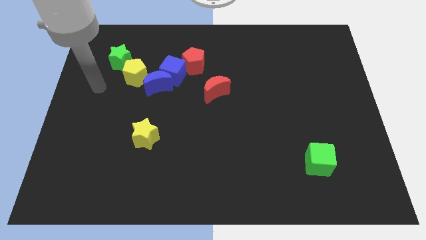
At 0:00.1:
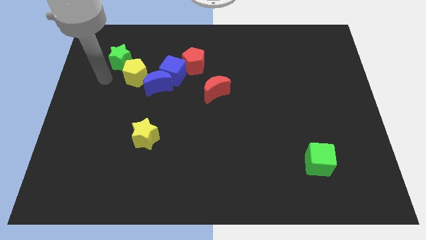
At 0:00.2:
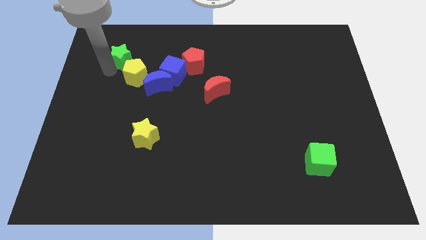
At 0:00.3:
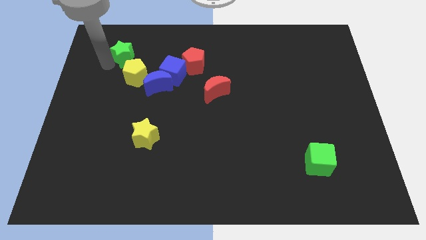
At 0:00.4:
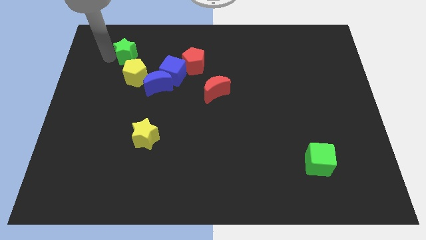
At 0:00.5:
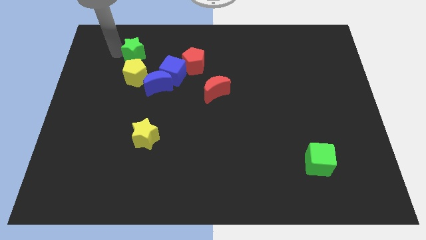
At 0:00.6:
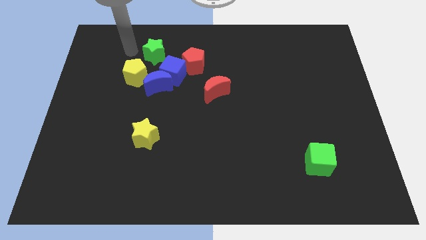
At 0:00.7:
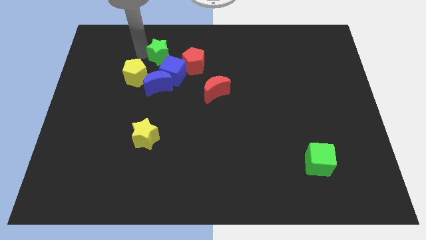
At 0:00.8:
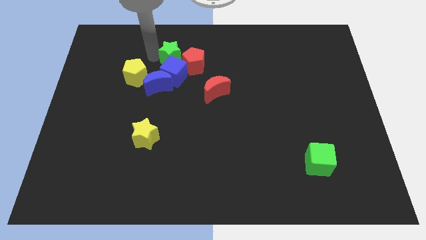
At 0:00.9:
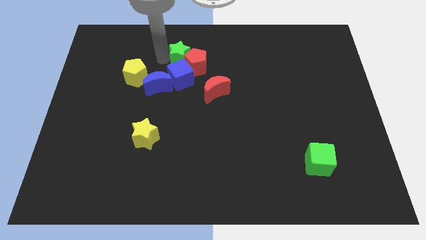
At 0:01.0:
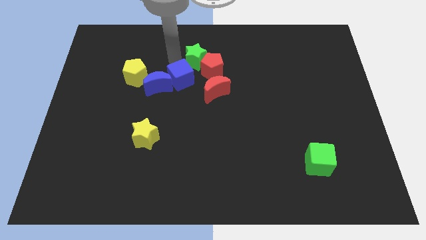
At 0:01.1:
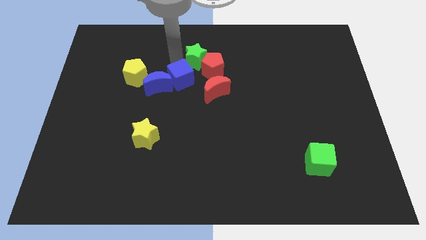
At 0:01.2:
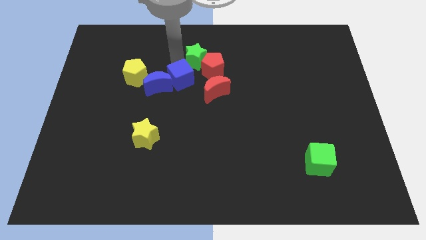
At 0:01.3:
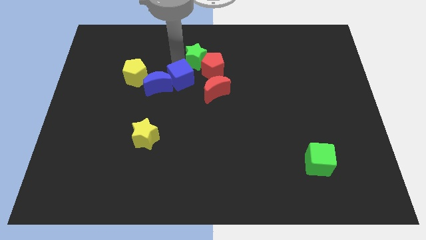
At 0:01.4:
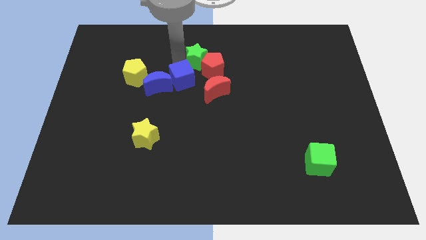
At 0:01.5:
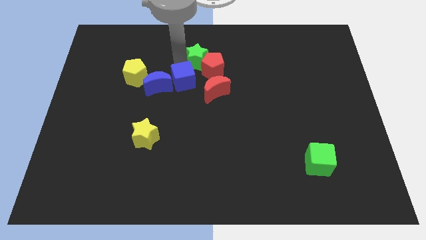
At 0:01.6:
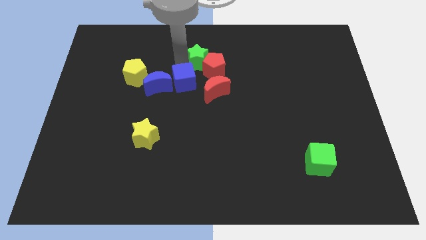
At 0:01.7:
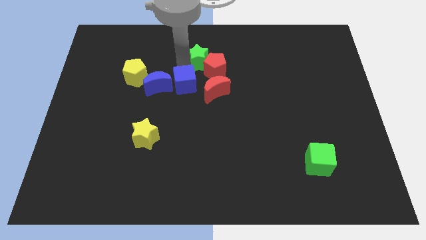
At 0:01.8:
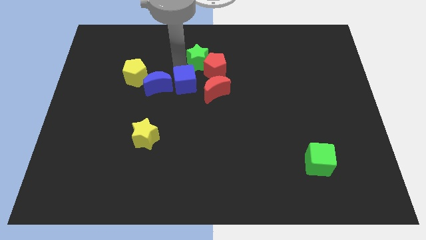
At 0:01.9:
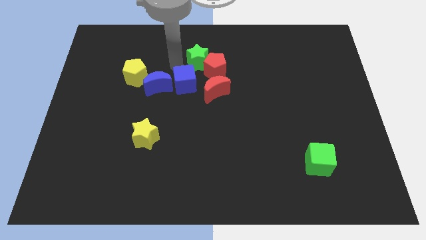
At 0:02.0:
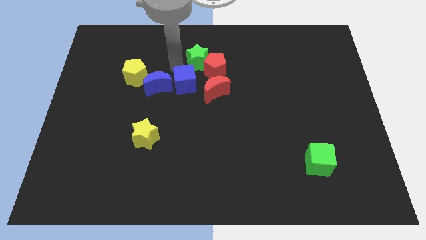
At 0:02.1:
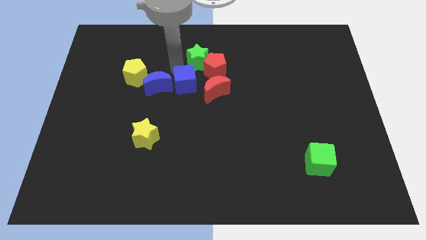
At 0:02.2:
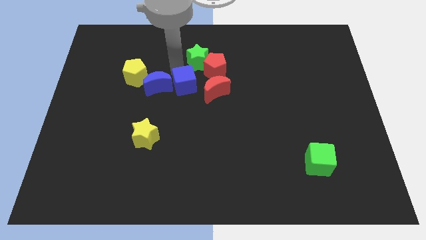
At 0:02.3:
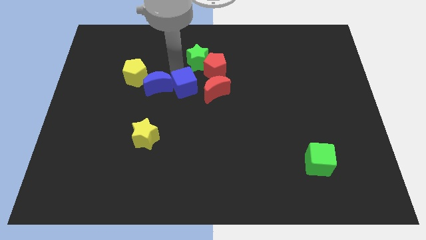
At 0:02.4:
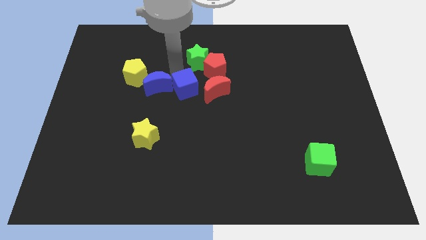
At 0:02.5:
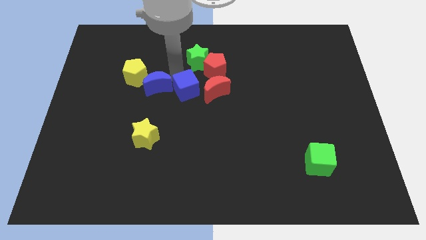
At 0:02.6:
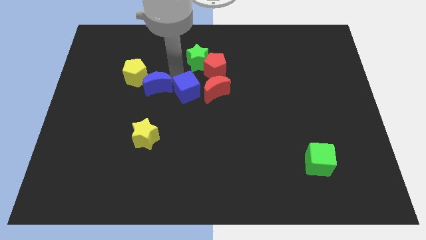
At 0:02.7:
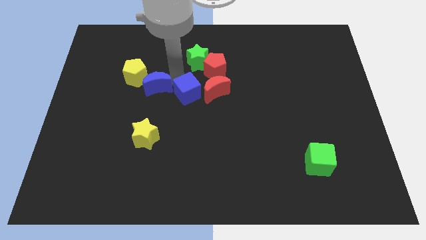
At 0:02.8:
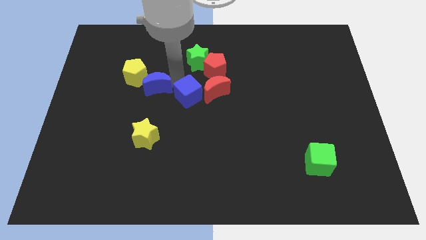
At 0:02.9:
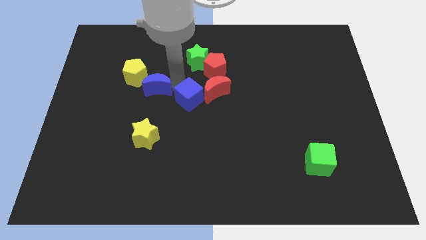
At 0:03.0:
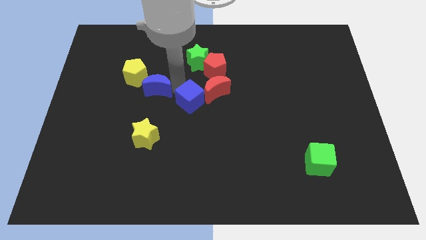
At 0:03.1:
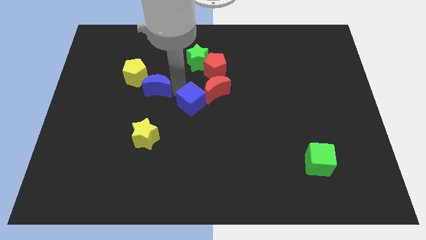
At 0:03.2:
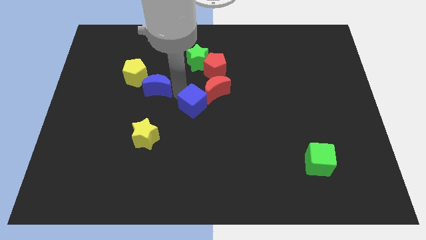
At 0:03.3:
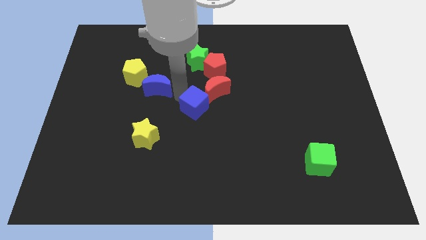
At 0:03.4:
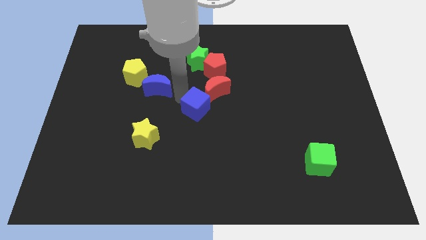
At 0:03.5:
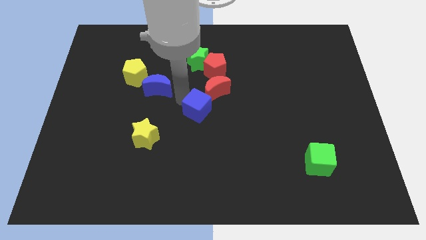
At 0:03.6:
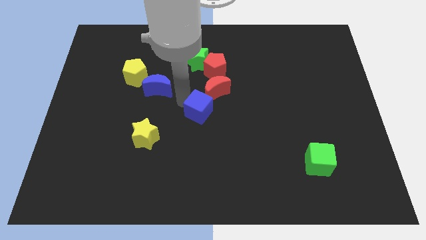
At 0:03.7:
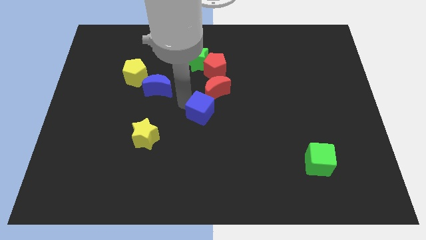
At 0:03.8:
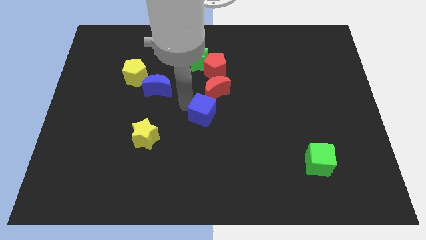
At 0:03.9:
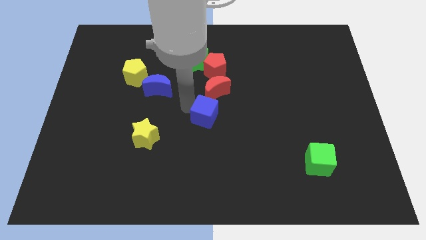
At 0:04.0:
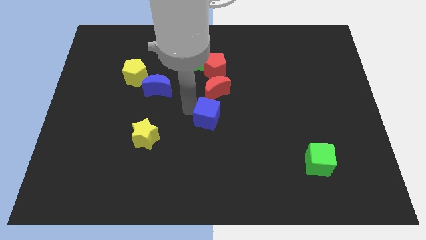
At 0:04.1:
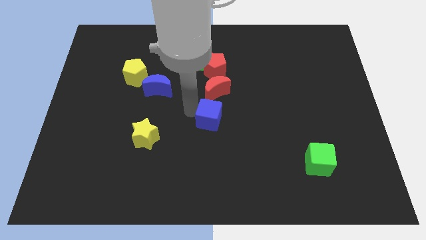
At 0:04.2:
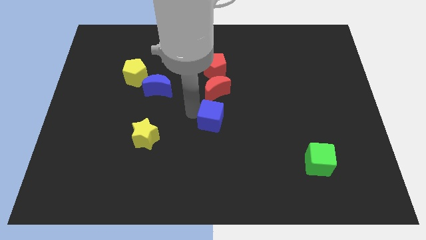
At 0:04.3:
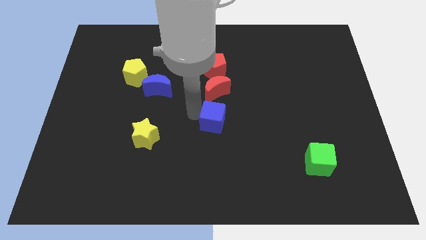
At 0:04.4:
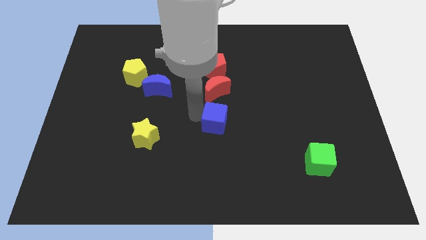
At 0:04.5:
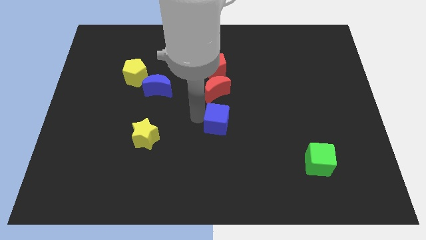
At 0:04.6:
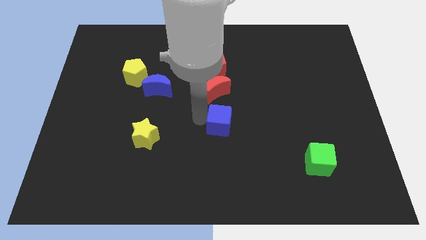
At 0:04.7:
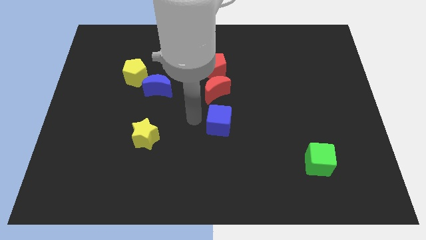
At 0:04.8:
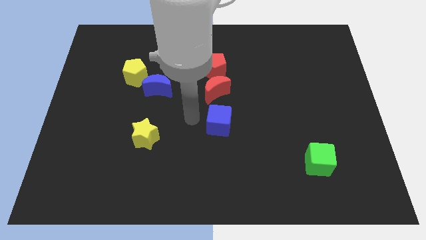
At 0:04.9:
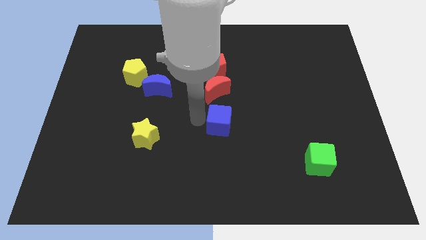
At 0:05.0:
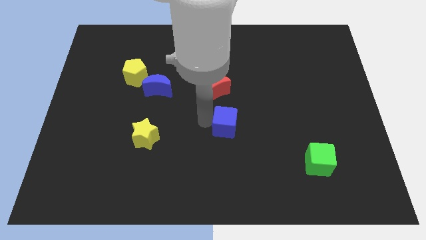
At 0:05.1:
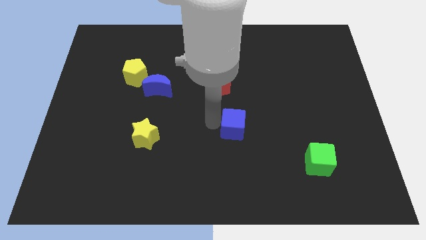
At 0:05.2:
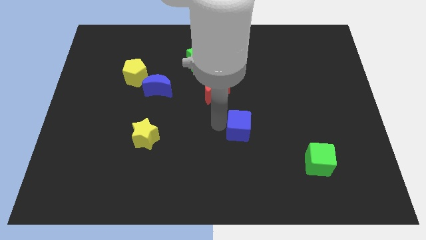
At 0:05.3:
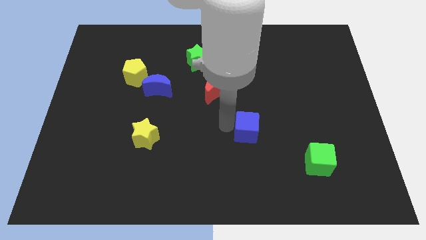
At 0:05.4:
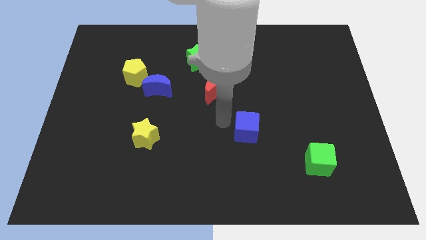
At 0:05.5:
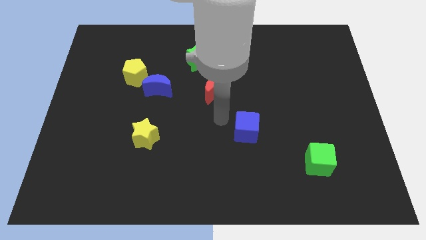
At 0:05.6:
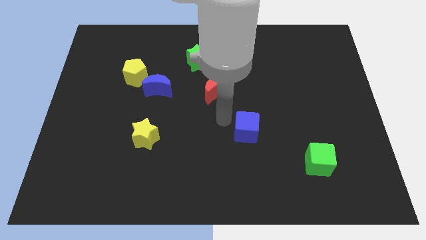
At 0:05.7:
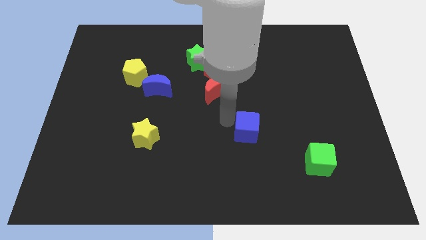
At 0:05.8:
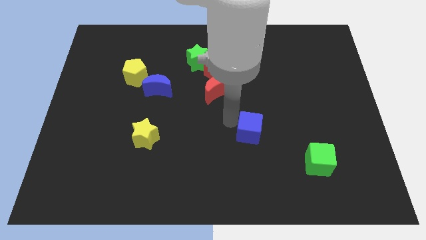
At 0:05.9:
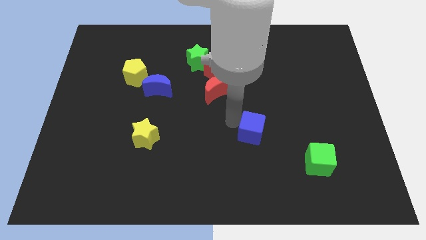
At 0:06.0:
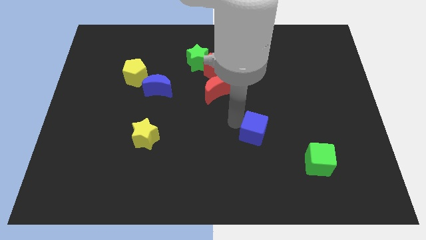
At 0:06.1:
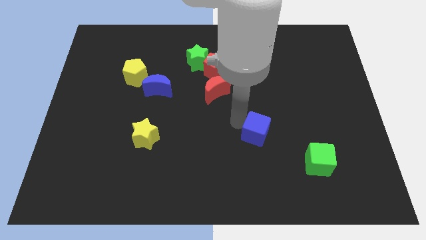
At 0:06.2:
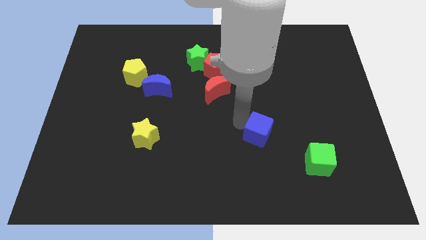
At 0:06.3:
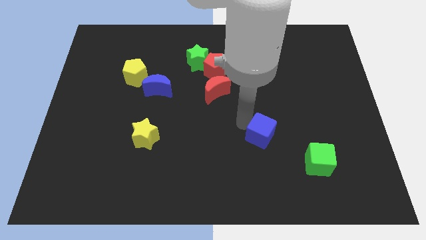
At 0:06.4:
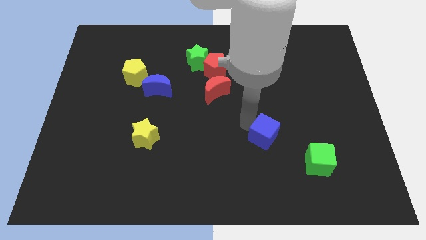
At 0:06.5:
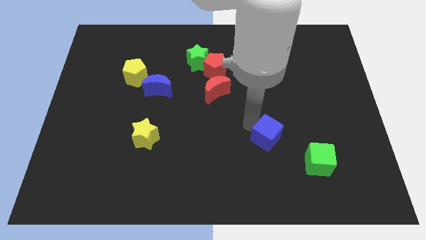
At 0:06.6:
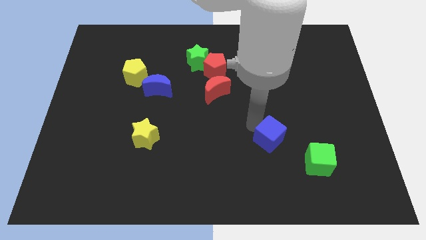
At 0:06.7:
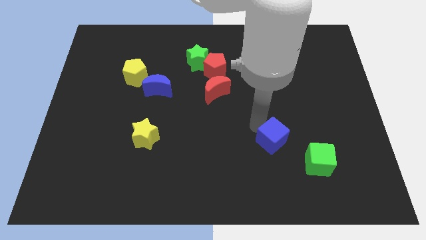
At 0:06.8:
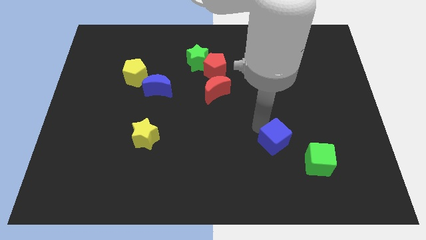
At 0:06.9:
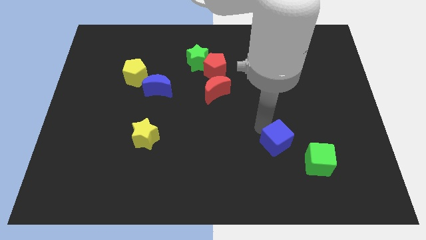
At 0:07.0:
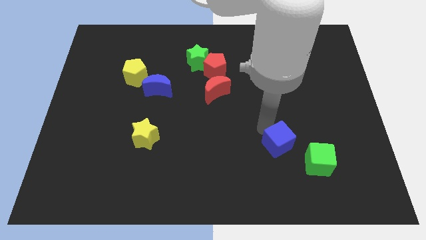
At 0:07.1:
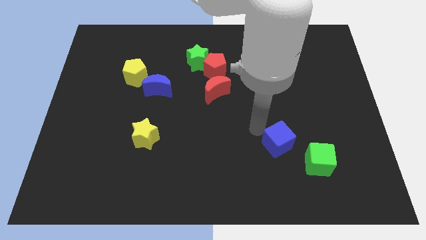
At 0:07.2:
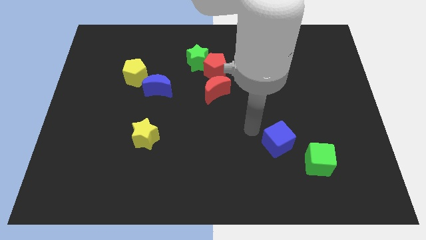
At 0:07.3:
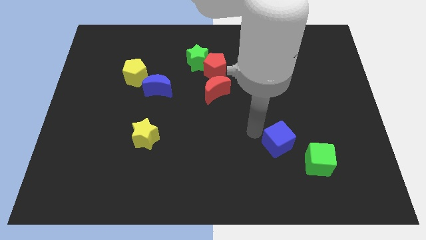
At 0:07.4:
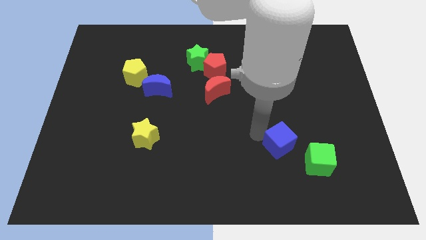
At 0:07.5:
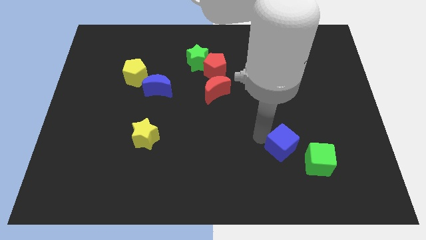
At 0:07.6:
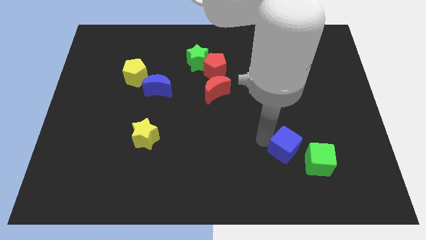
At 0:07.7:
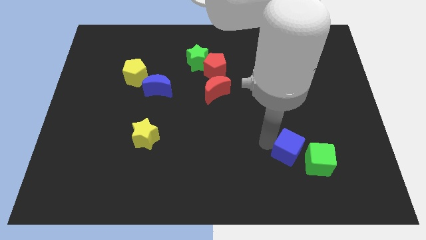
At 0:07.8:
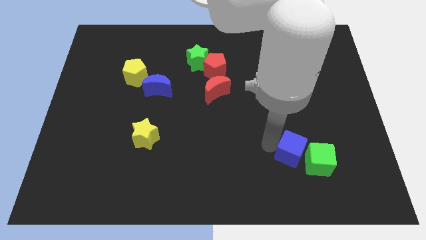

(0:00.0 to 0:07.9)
put the blue cube towards the green cube
